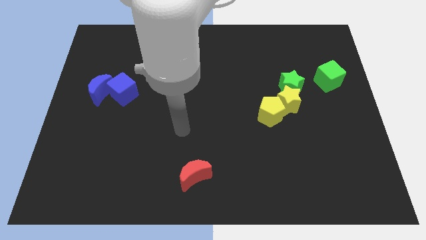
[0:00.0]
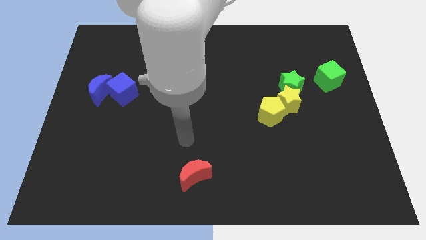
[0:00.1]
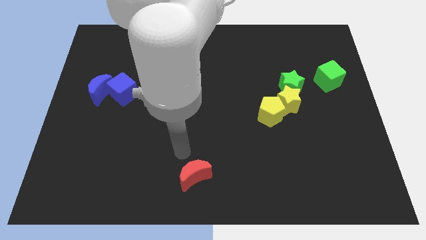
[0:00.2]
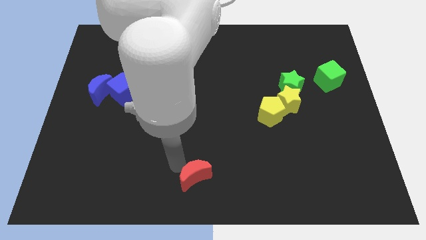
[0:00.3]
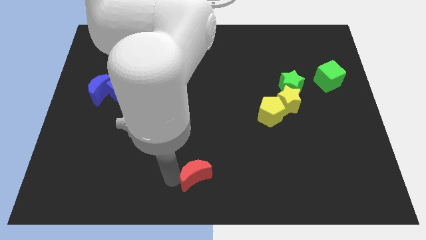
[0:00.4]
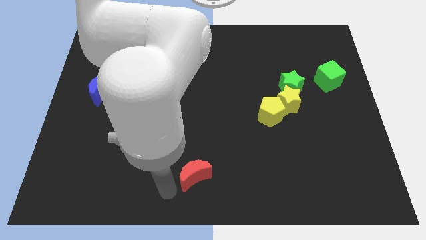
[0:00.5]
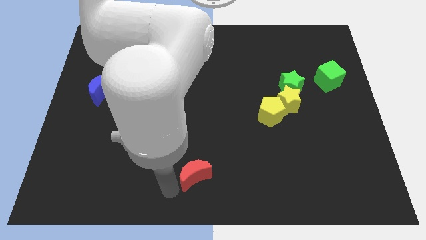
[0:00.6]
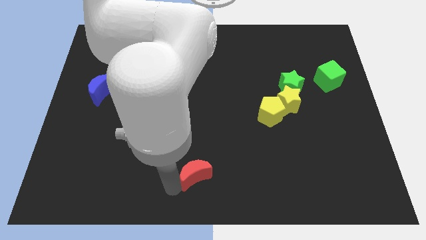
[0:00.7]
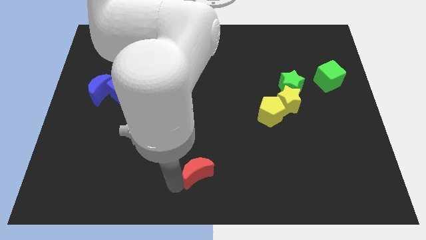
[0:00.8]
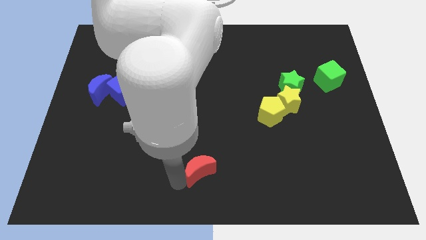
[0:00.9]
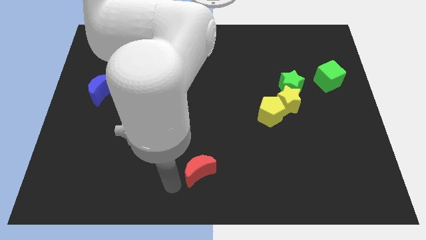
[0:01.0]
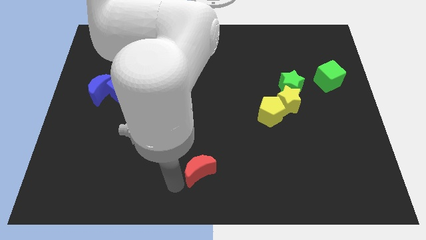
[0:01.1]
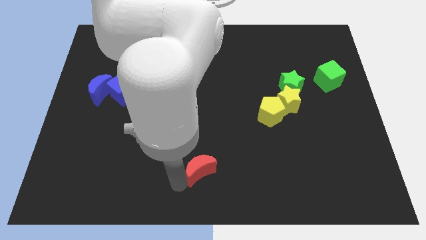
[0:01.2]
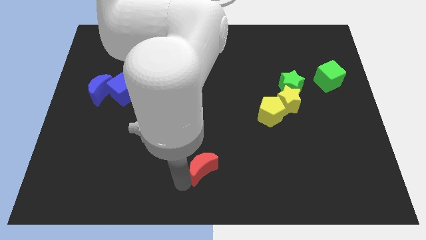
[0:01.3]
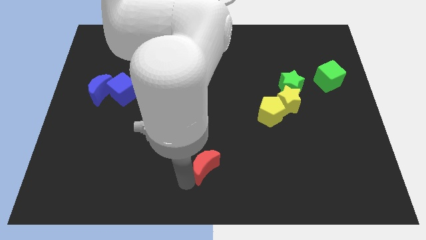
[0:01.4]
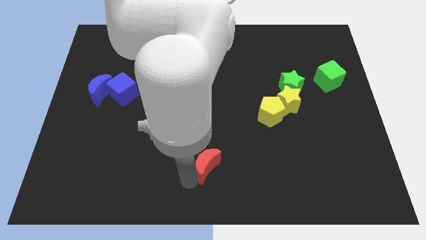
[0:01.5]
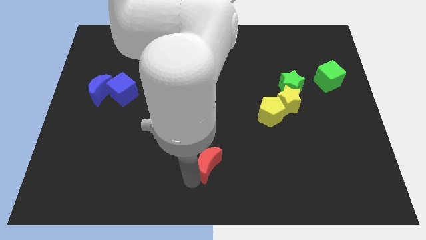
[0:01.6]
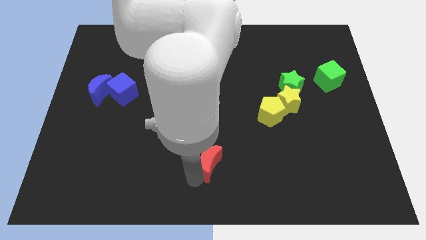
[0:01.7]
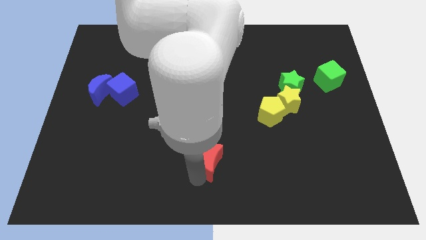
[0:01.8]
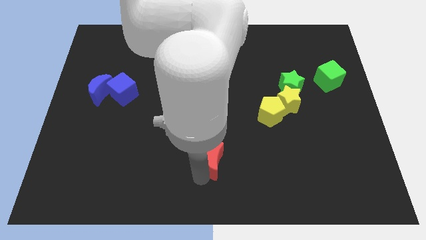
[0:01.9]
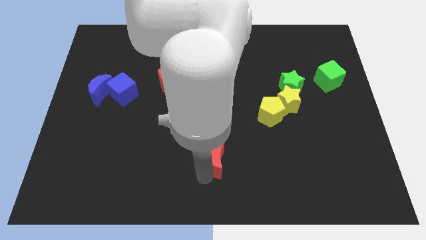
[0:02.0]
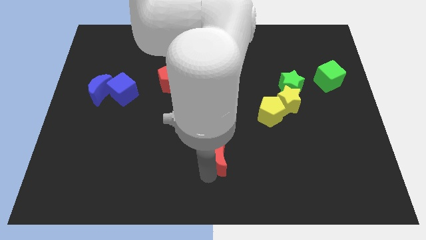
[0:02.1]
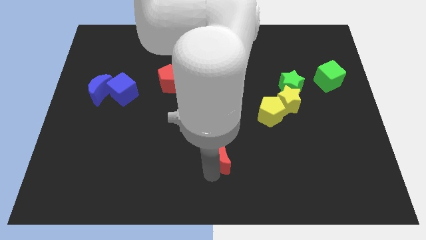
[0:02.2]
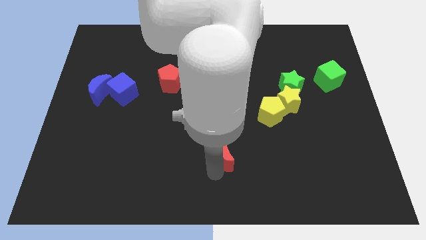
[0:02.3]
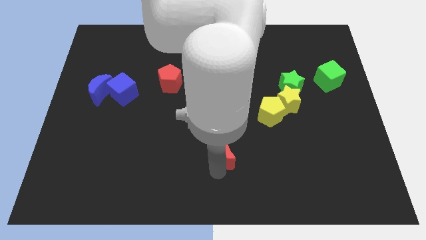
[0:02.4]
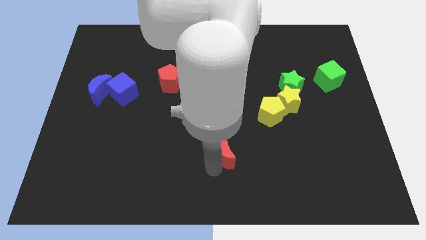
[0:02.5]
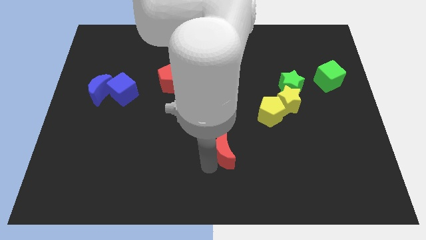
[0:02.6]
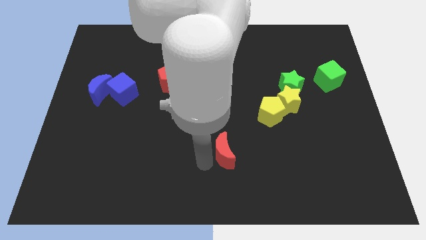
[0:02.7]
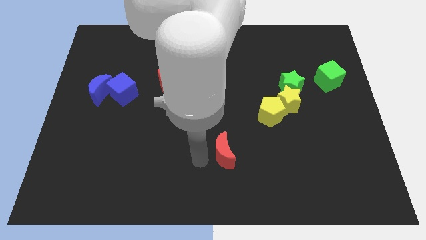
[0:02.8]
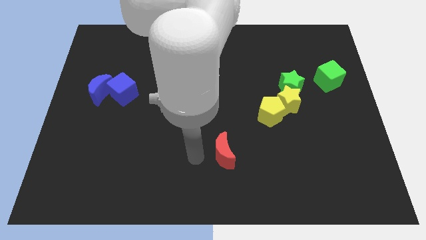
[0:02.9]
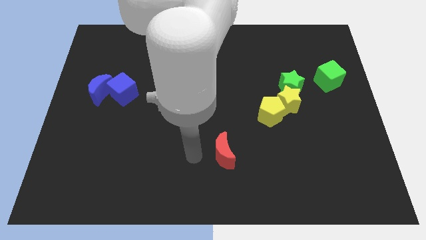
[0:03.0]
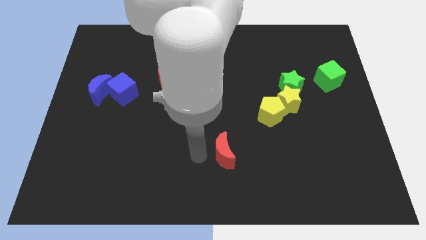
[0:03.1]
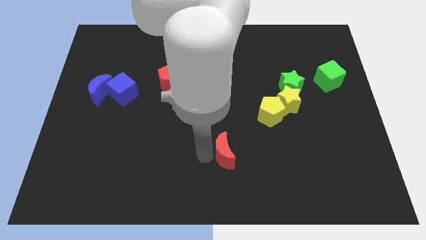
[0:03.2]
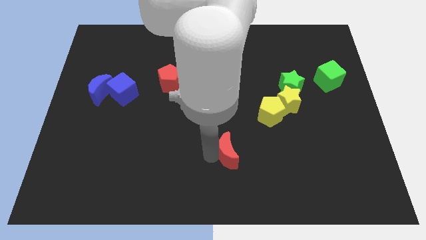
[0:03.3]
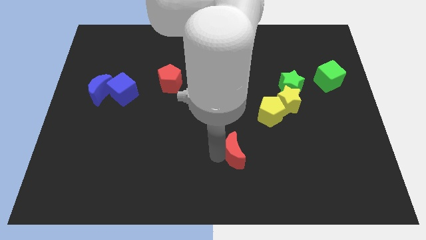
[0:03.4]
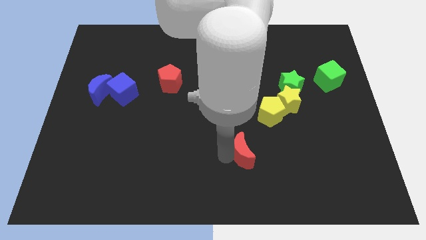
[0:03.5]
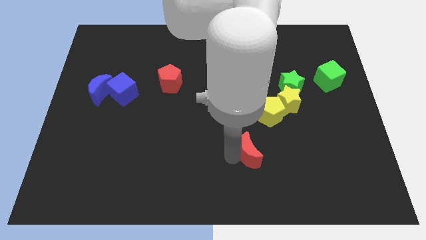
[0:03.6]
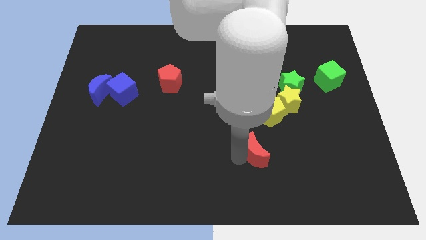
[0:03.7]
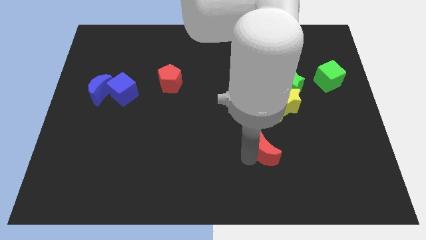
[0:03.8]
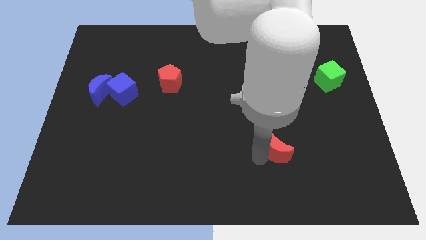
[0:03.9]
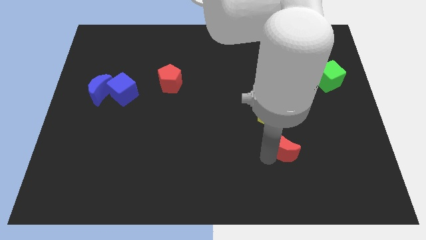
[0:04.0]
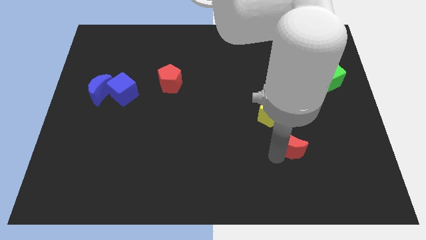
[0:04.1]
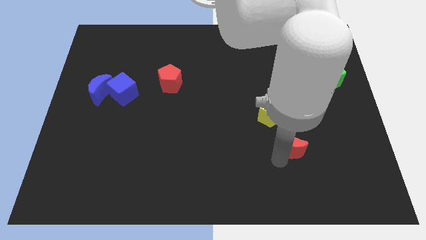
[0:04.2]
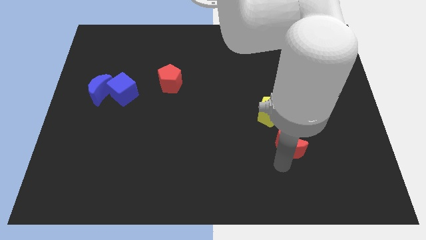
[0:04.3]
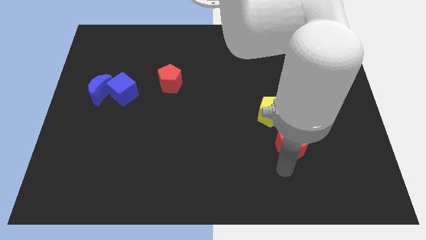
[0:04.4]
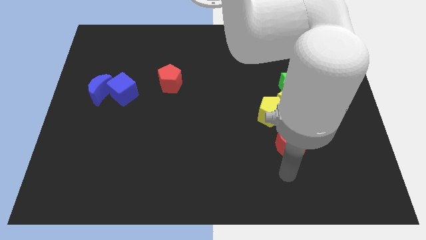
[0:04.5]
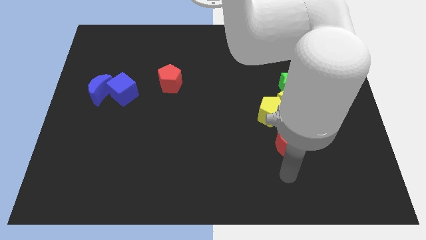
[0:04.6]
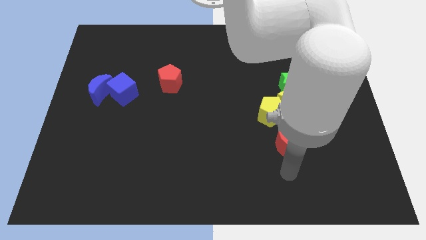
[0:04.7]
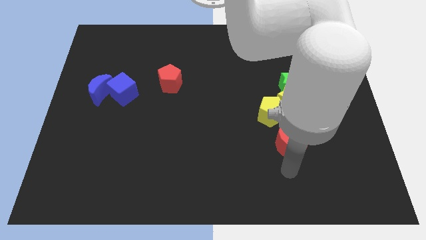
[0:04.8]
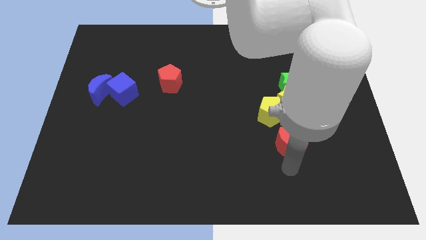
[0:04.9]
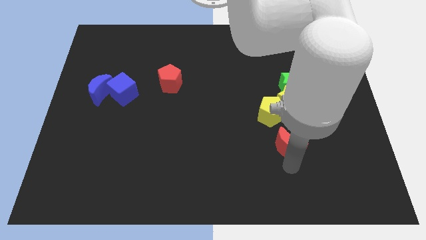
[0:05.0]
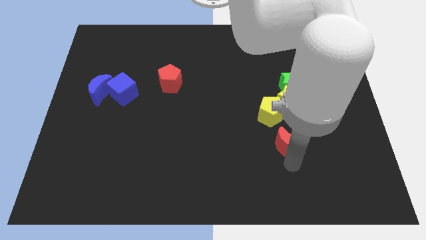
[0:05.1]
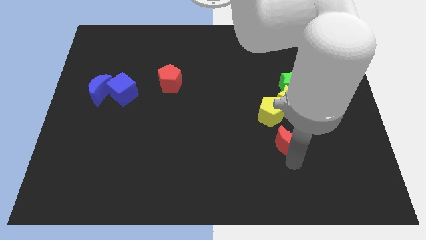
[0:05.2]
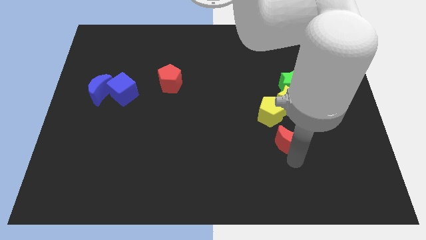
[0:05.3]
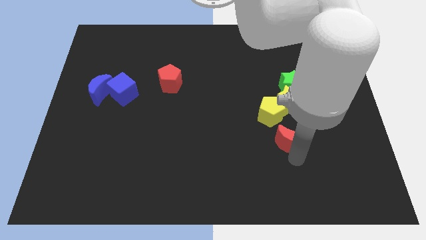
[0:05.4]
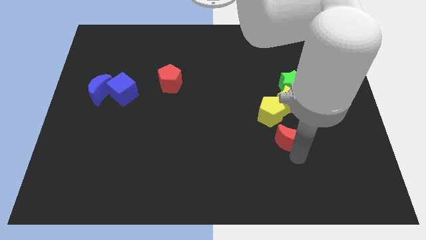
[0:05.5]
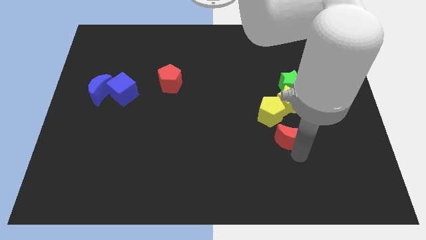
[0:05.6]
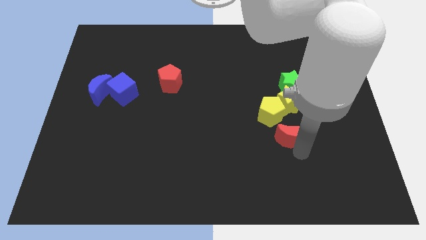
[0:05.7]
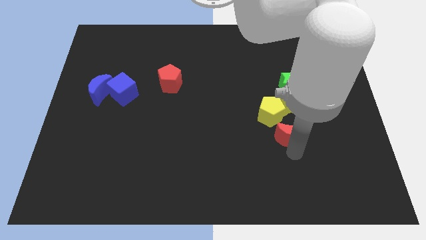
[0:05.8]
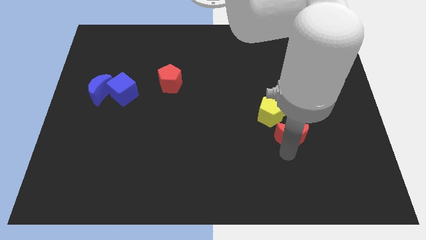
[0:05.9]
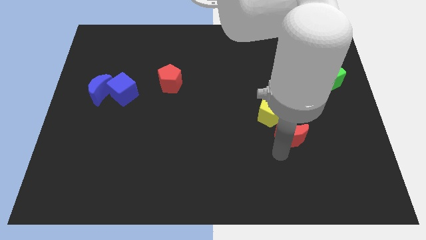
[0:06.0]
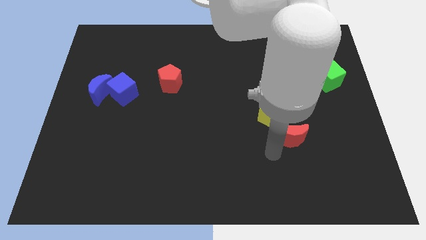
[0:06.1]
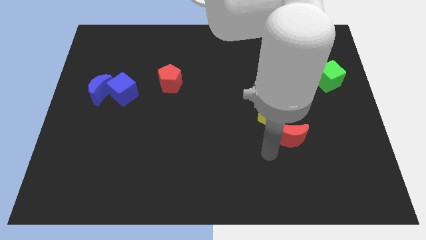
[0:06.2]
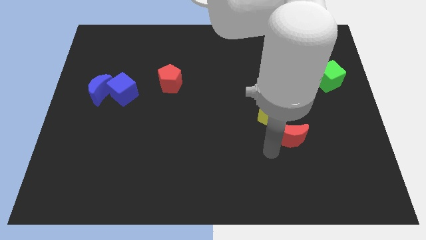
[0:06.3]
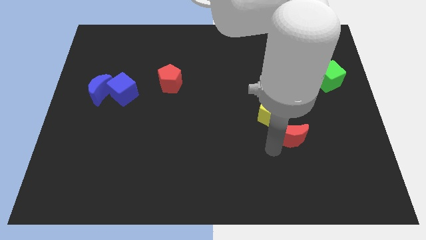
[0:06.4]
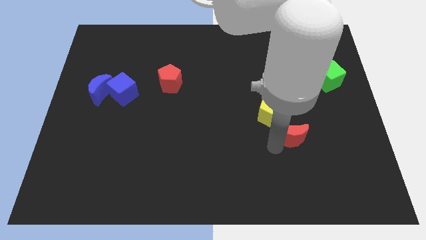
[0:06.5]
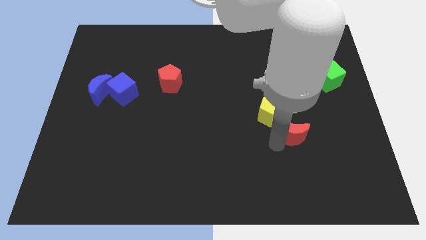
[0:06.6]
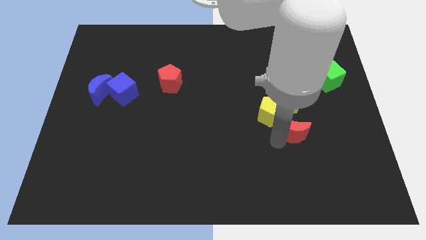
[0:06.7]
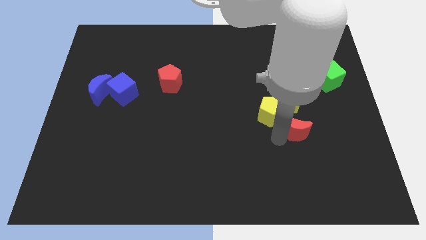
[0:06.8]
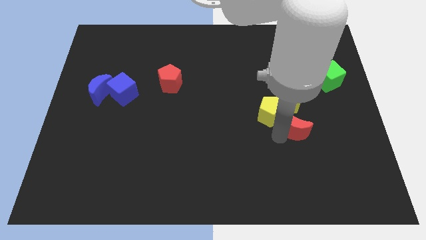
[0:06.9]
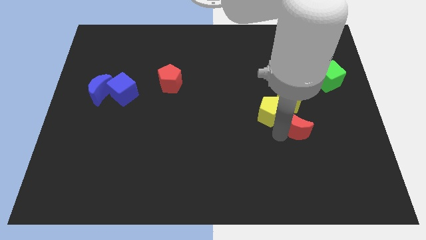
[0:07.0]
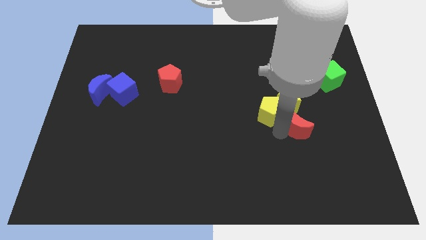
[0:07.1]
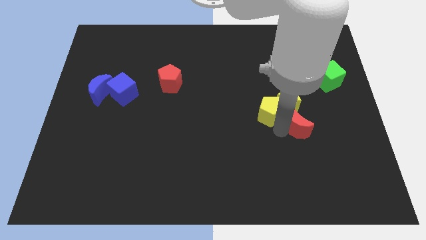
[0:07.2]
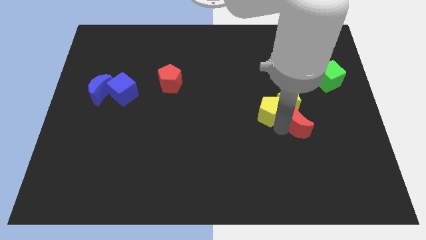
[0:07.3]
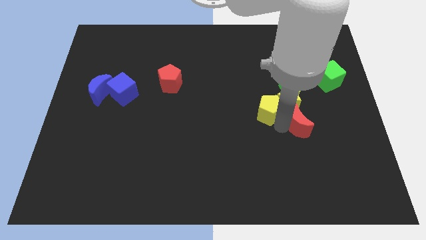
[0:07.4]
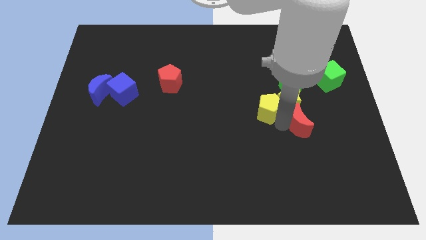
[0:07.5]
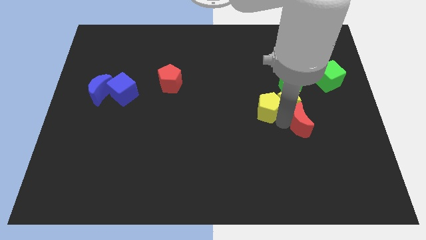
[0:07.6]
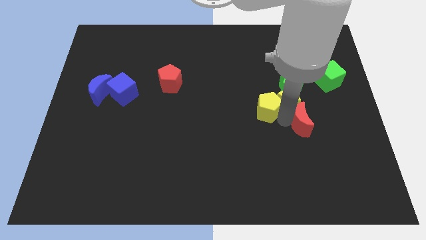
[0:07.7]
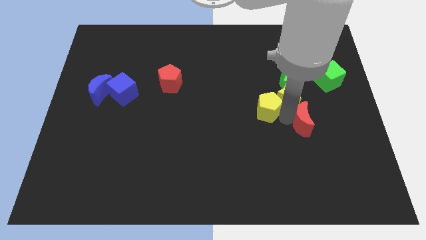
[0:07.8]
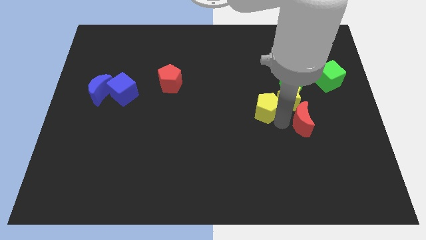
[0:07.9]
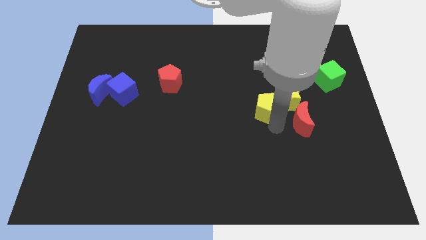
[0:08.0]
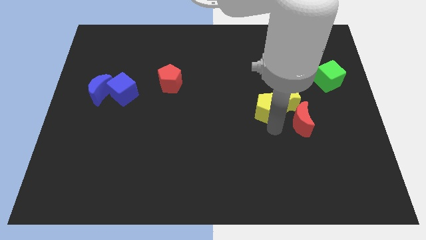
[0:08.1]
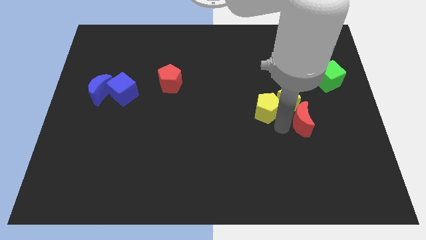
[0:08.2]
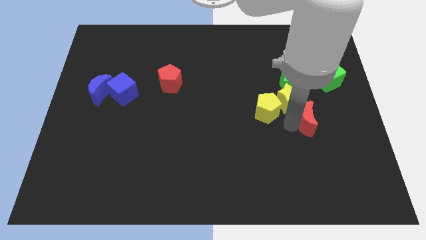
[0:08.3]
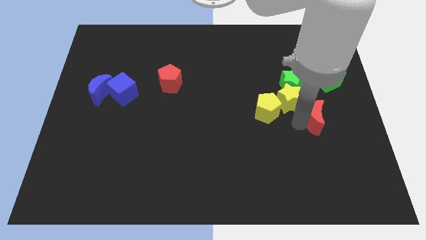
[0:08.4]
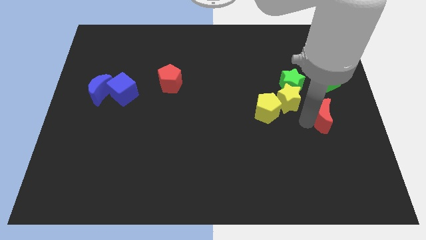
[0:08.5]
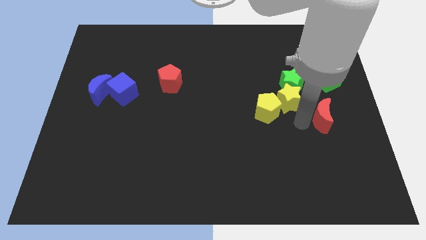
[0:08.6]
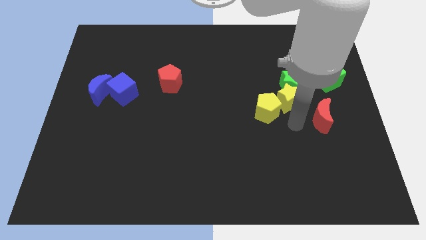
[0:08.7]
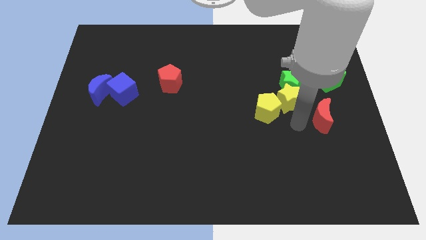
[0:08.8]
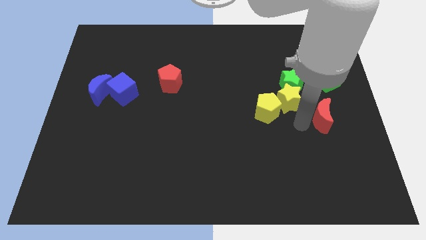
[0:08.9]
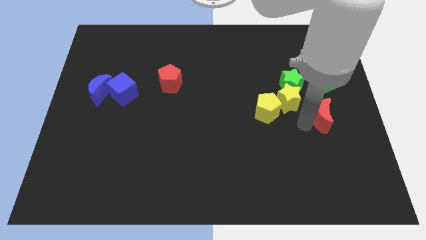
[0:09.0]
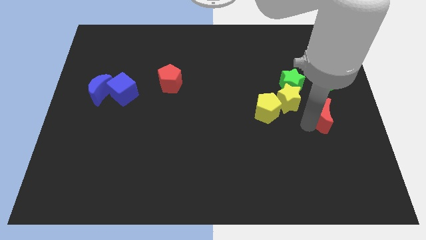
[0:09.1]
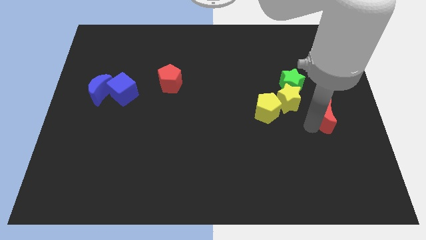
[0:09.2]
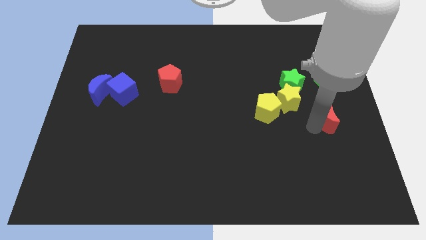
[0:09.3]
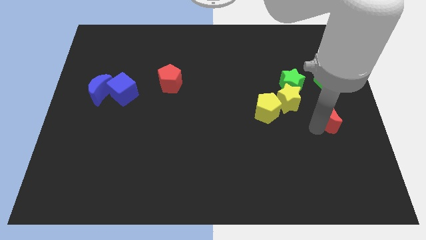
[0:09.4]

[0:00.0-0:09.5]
put the red moon to the center right
